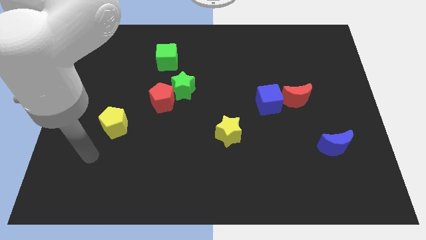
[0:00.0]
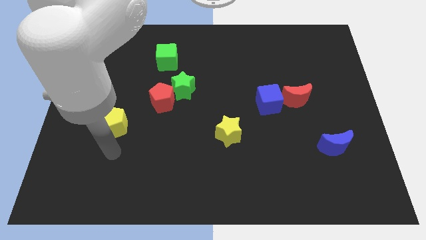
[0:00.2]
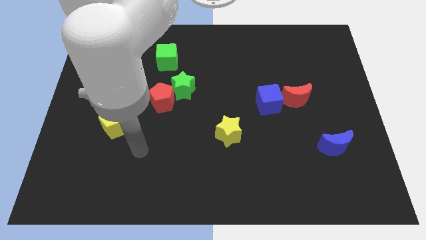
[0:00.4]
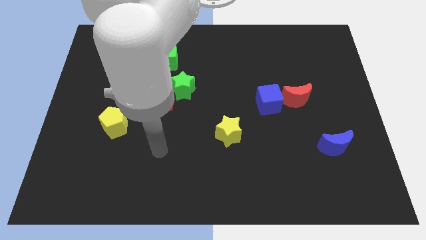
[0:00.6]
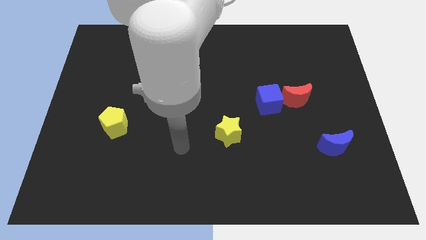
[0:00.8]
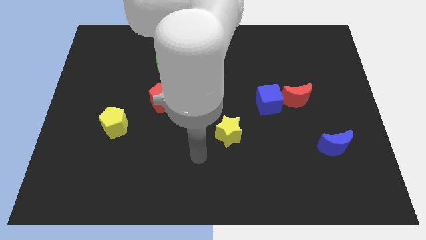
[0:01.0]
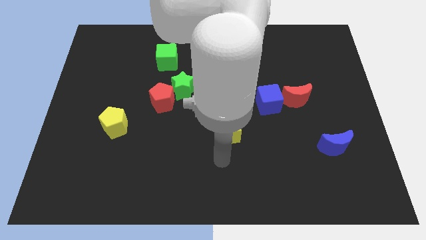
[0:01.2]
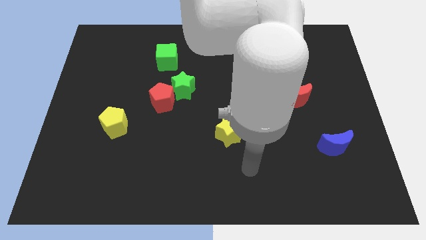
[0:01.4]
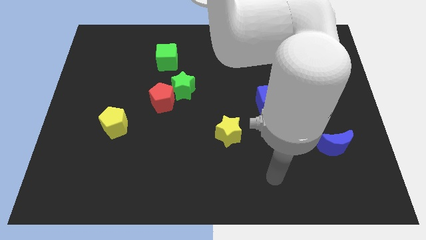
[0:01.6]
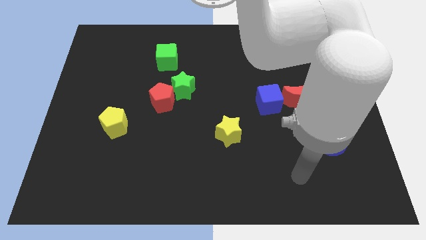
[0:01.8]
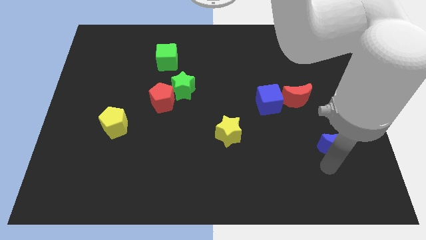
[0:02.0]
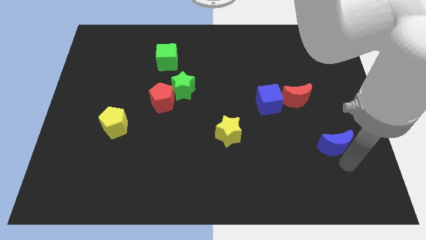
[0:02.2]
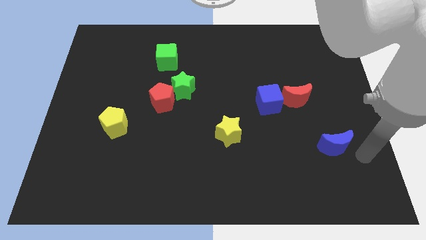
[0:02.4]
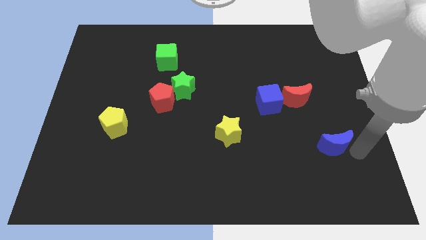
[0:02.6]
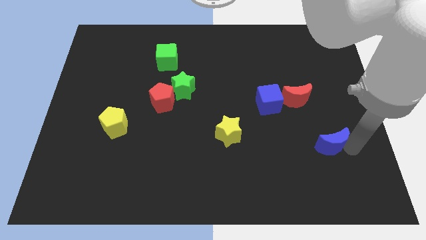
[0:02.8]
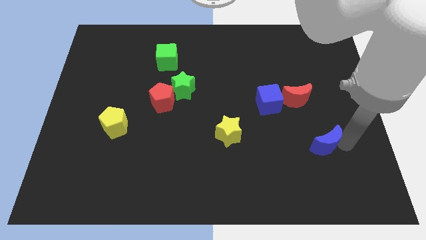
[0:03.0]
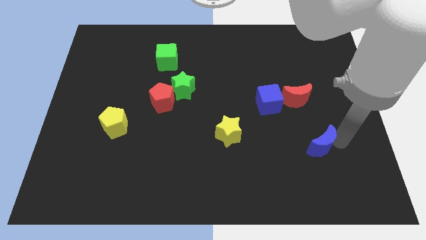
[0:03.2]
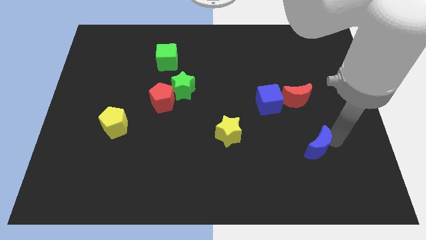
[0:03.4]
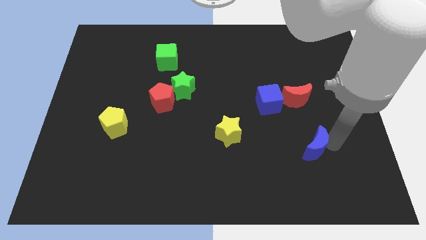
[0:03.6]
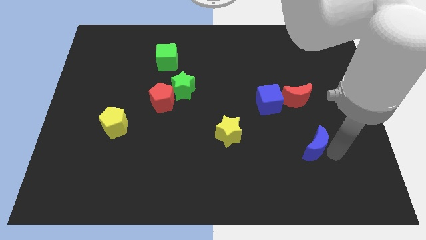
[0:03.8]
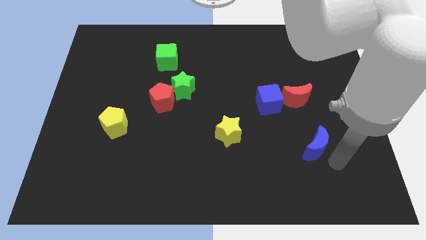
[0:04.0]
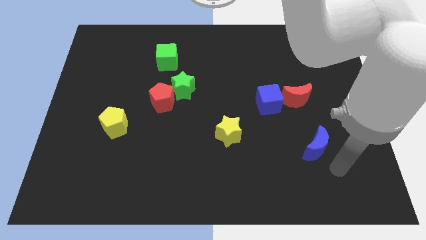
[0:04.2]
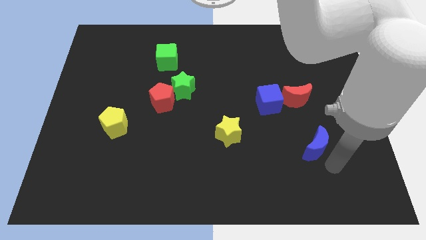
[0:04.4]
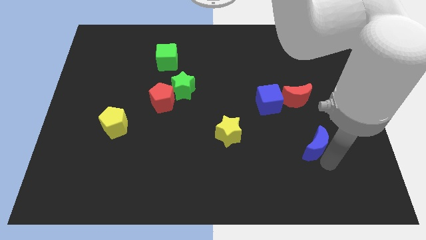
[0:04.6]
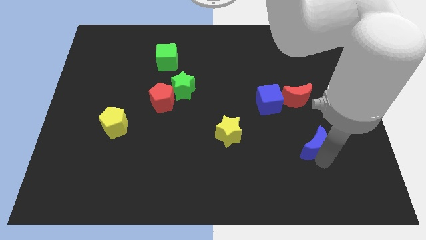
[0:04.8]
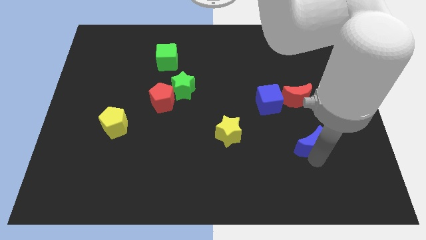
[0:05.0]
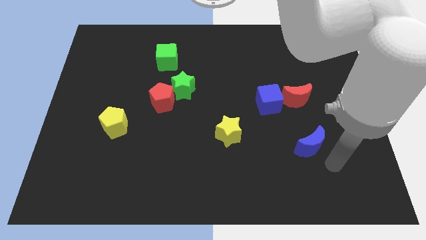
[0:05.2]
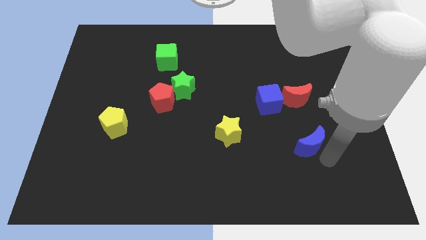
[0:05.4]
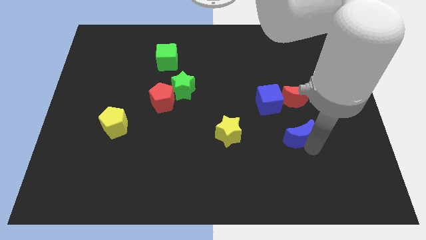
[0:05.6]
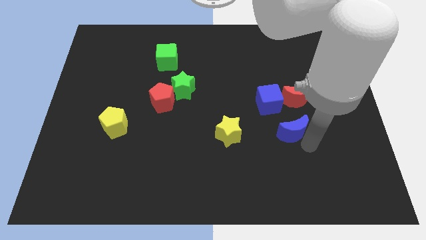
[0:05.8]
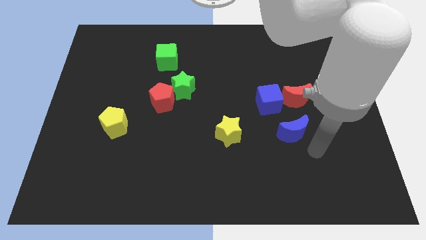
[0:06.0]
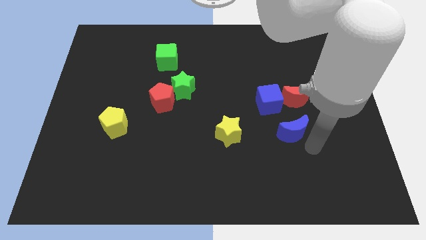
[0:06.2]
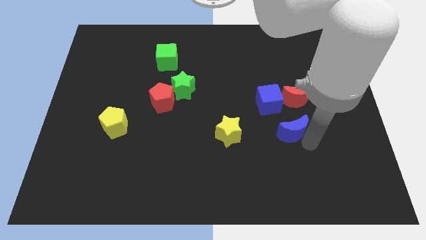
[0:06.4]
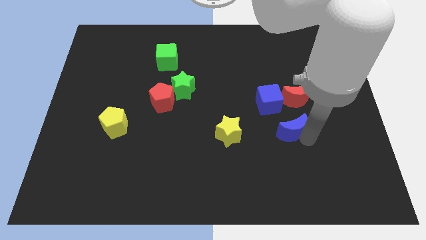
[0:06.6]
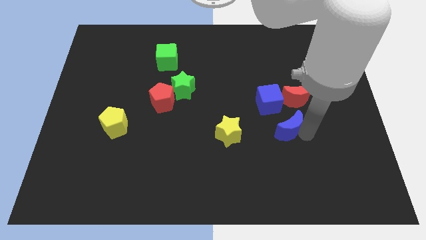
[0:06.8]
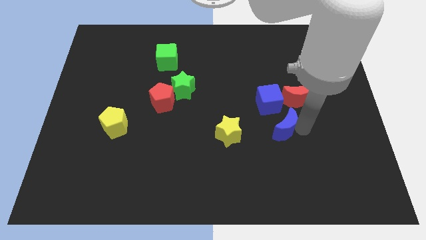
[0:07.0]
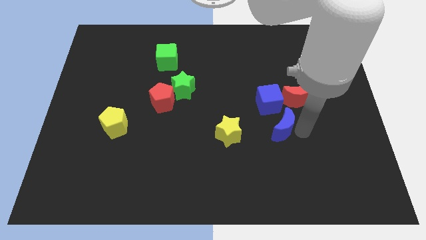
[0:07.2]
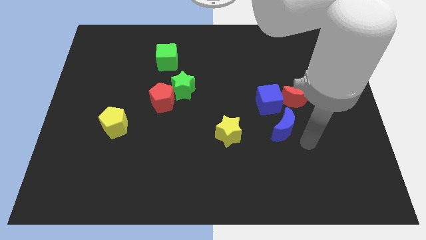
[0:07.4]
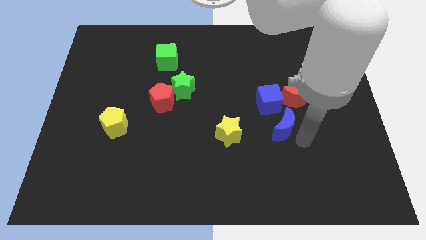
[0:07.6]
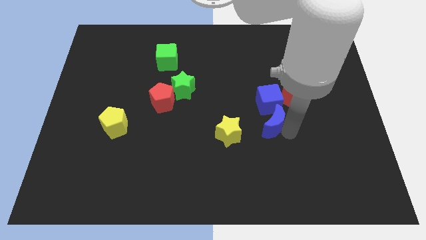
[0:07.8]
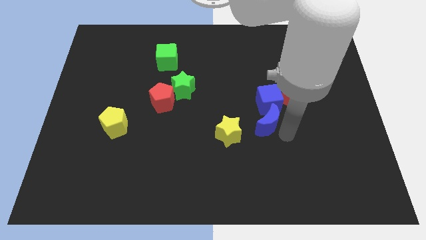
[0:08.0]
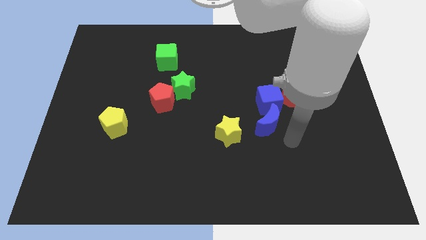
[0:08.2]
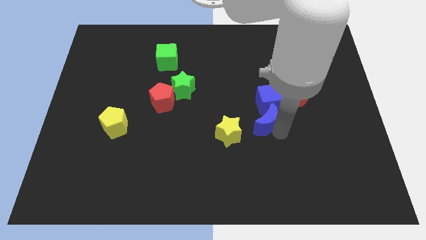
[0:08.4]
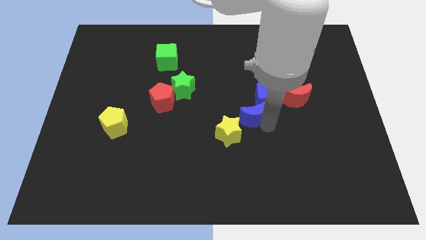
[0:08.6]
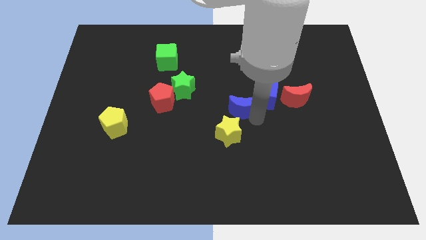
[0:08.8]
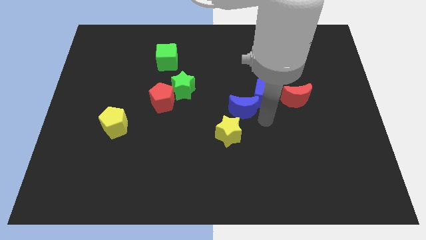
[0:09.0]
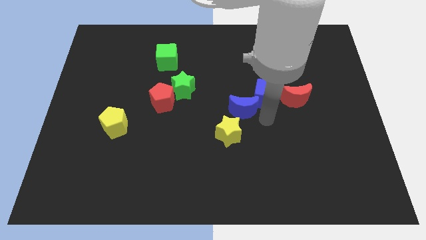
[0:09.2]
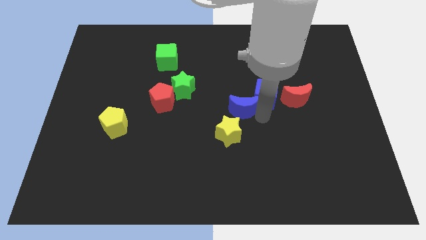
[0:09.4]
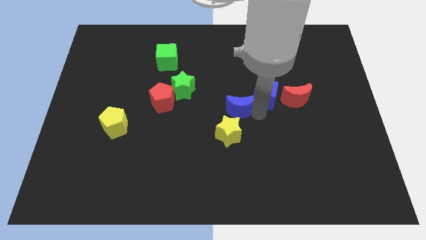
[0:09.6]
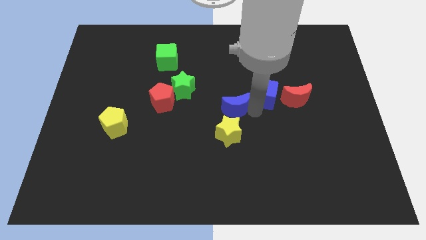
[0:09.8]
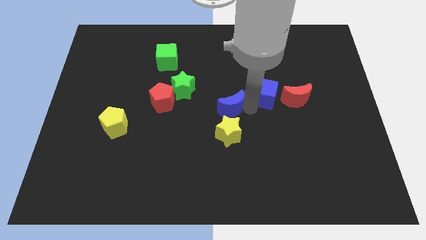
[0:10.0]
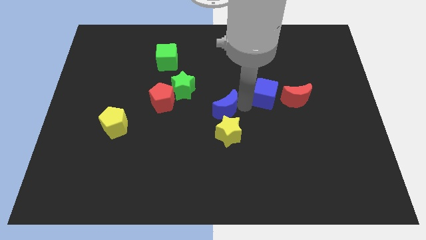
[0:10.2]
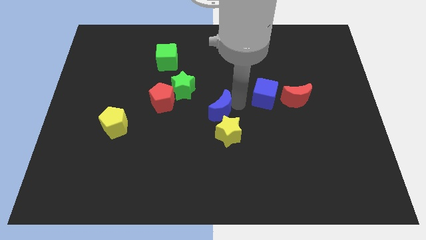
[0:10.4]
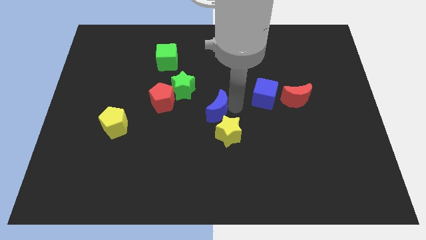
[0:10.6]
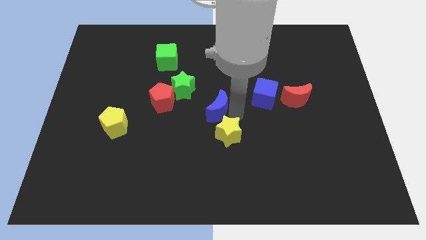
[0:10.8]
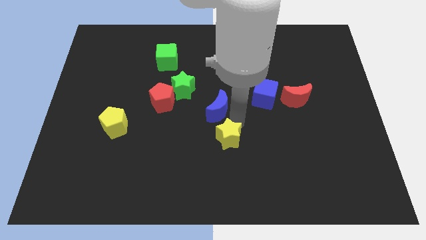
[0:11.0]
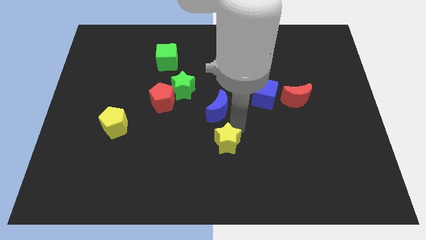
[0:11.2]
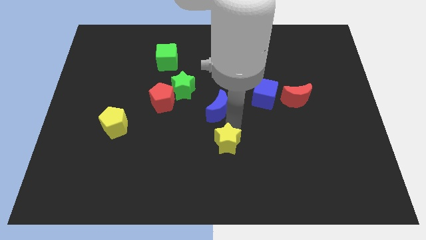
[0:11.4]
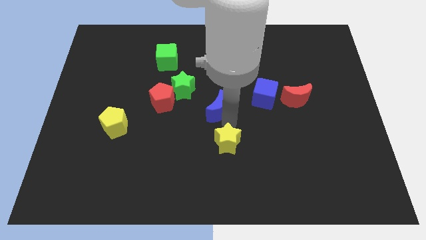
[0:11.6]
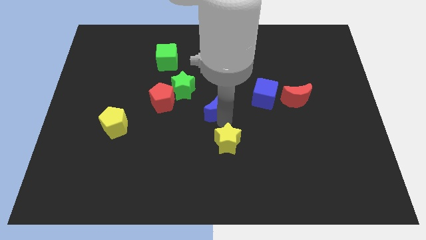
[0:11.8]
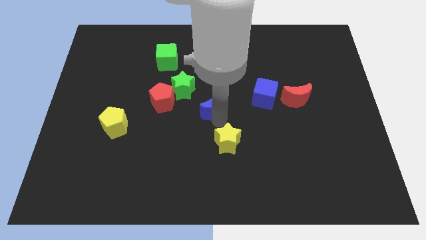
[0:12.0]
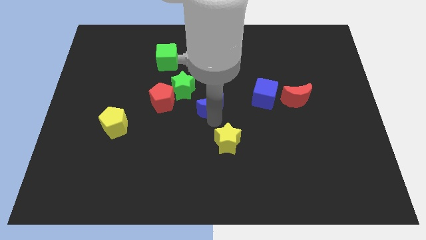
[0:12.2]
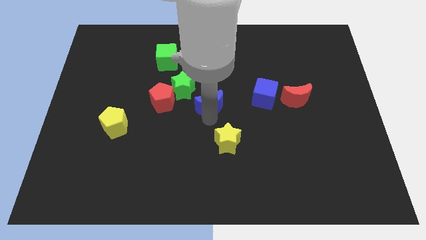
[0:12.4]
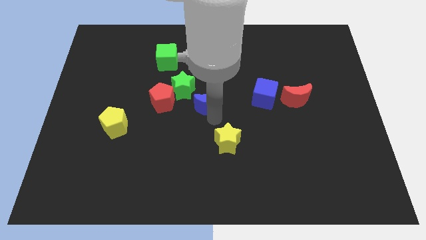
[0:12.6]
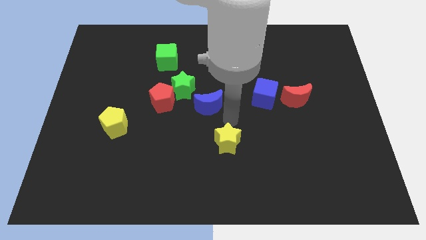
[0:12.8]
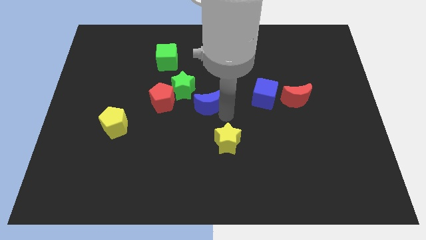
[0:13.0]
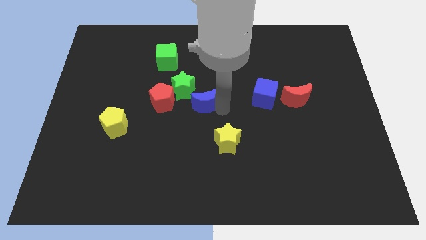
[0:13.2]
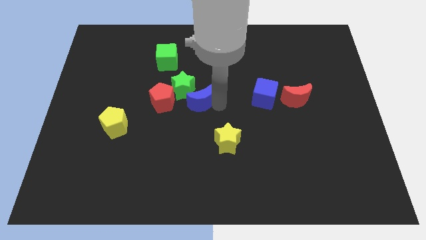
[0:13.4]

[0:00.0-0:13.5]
slide the blue moon to the green star

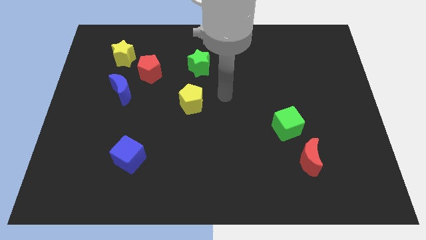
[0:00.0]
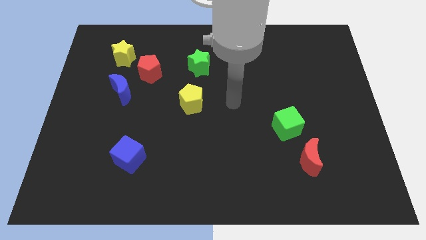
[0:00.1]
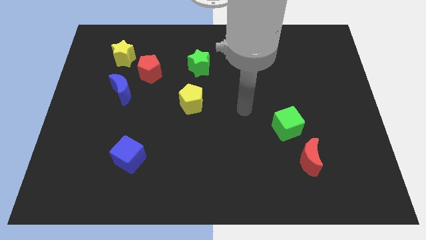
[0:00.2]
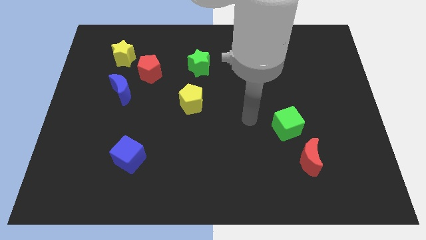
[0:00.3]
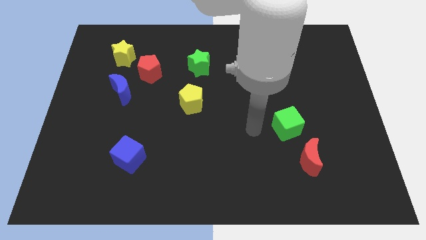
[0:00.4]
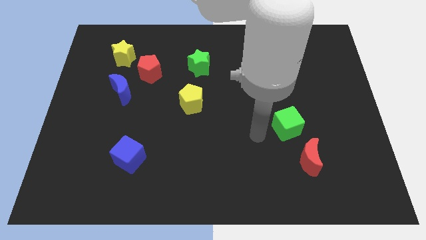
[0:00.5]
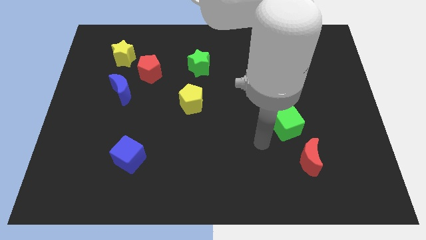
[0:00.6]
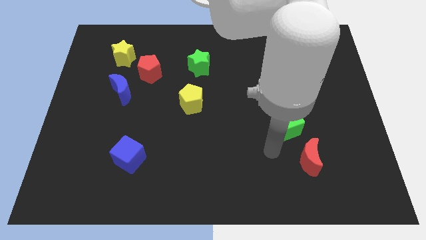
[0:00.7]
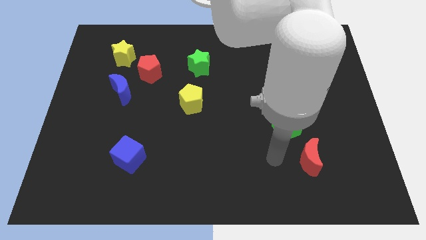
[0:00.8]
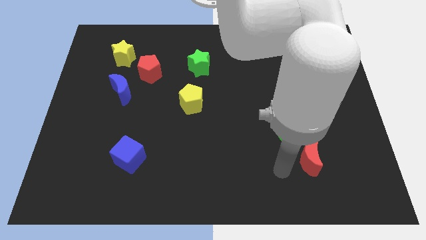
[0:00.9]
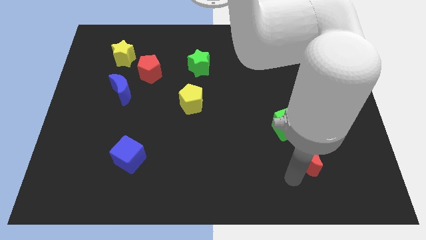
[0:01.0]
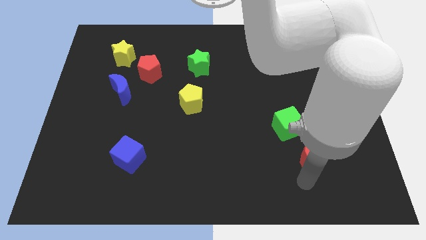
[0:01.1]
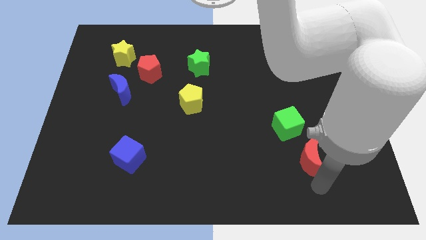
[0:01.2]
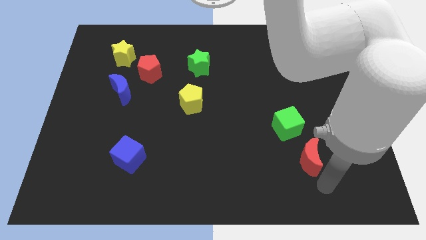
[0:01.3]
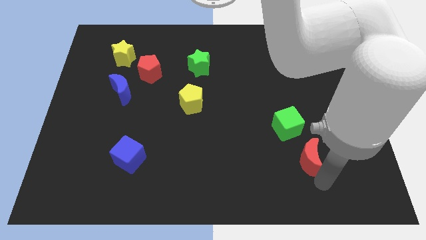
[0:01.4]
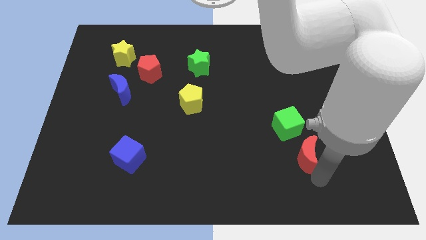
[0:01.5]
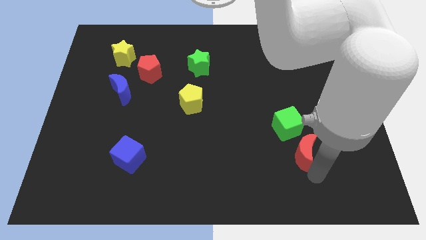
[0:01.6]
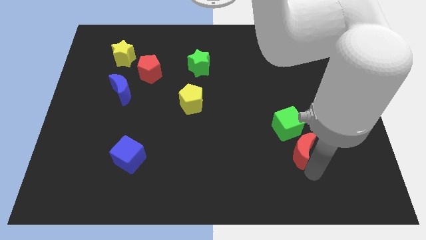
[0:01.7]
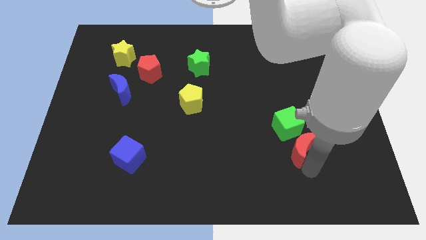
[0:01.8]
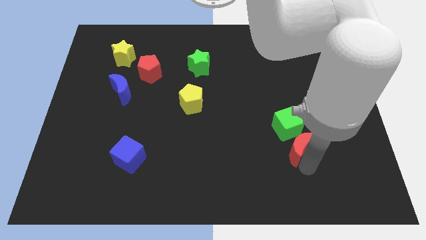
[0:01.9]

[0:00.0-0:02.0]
slide the red moon next to the green cube
